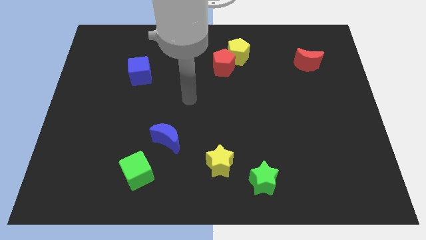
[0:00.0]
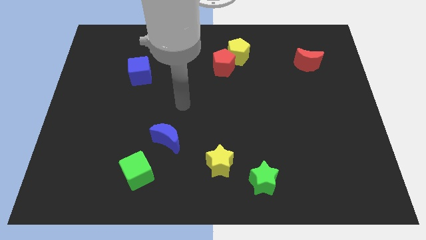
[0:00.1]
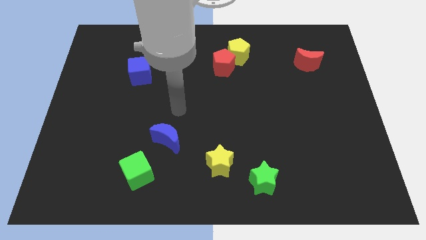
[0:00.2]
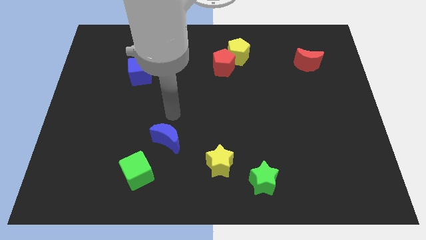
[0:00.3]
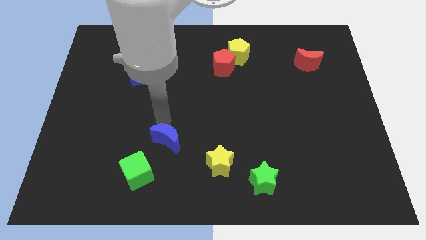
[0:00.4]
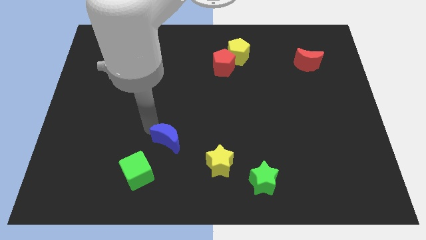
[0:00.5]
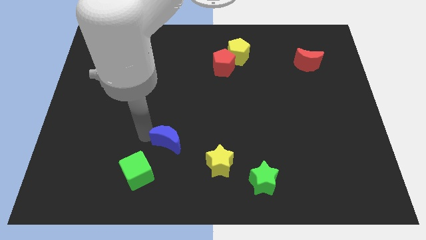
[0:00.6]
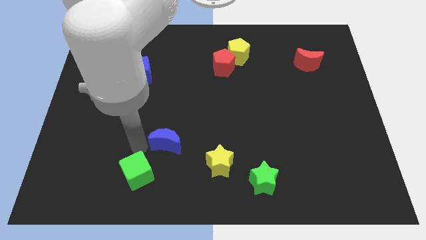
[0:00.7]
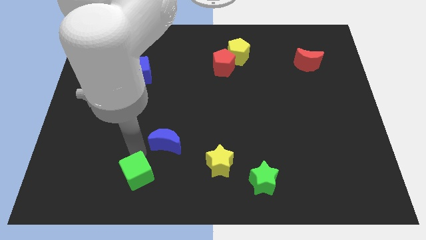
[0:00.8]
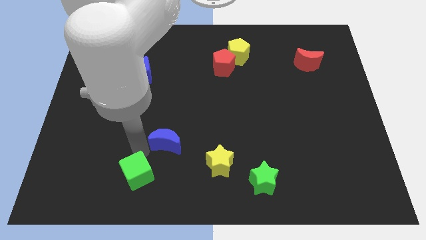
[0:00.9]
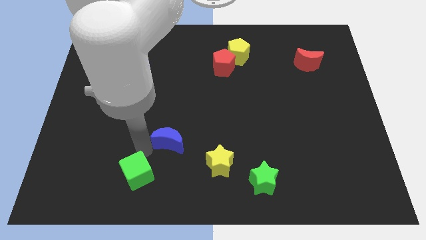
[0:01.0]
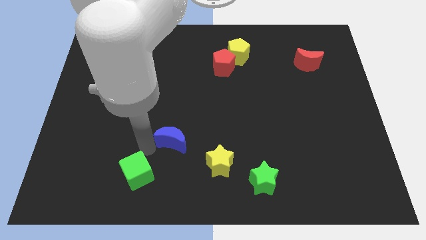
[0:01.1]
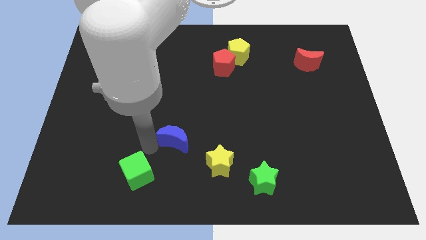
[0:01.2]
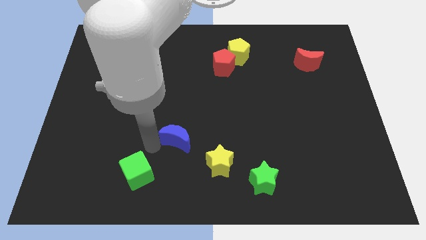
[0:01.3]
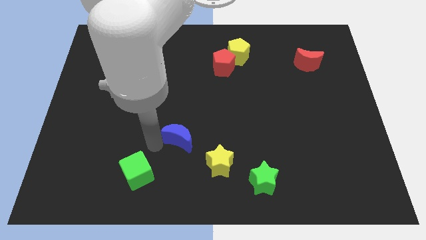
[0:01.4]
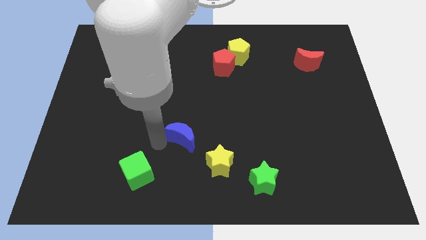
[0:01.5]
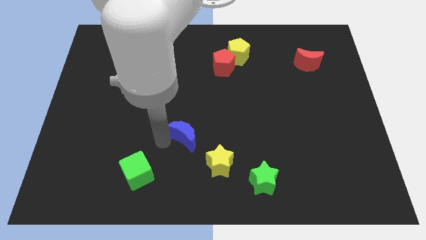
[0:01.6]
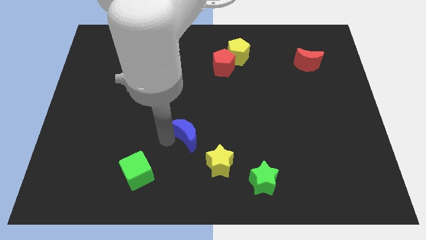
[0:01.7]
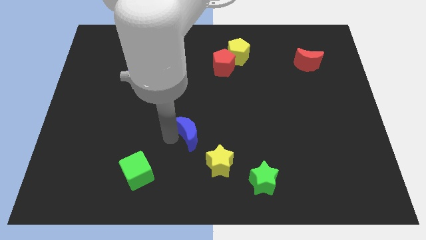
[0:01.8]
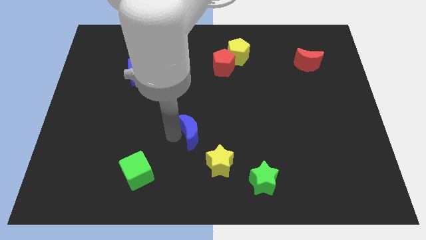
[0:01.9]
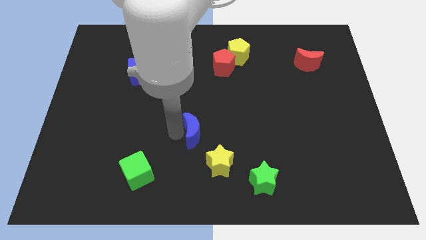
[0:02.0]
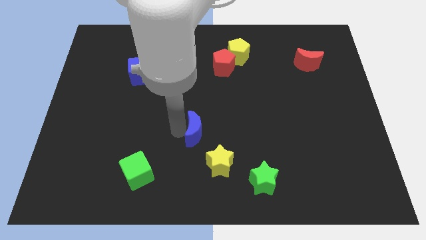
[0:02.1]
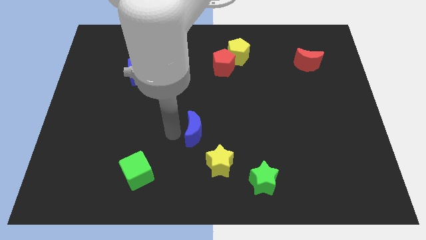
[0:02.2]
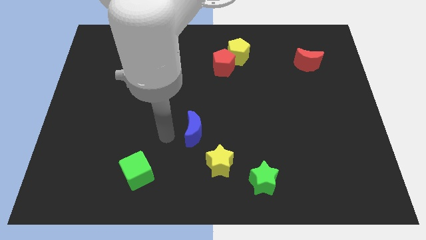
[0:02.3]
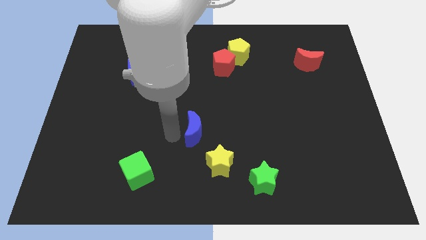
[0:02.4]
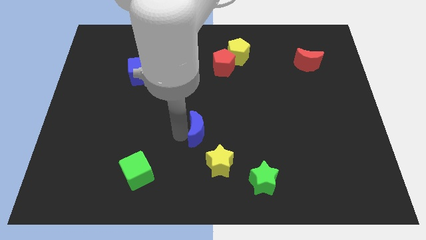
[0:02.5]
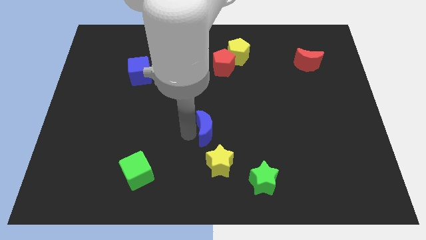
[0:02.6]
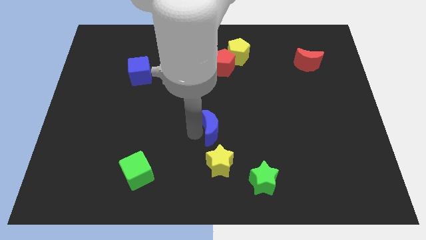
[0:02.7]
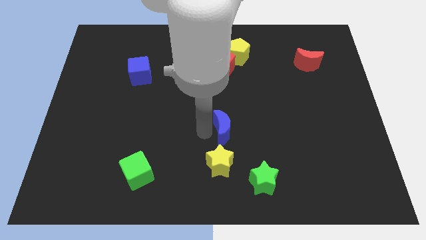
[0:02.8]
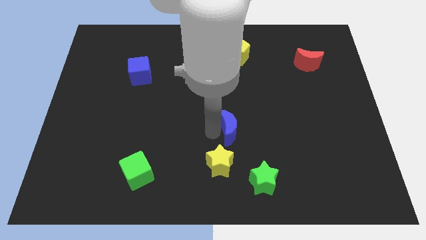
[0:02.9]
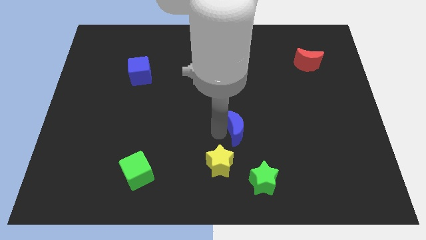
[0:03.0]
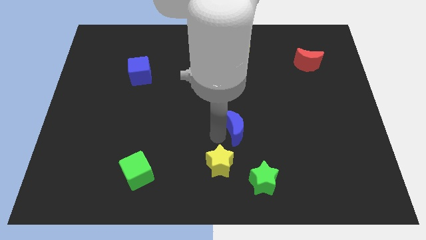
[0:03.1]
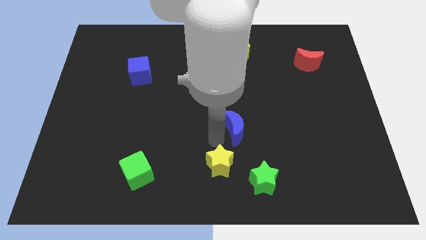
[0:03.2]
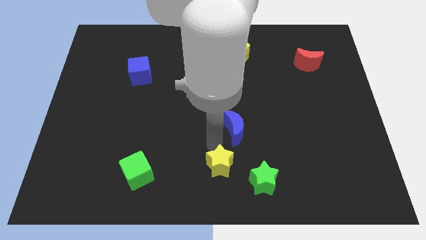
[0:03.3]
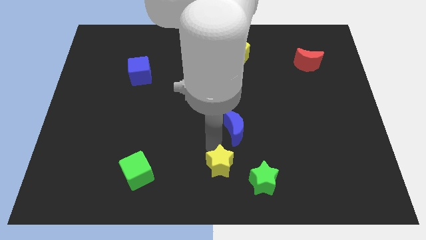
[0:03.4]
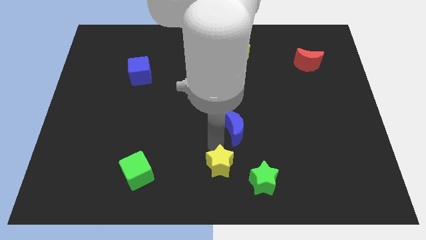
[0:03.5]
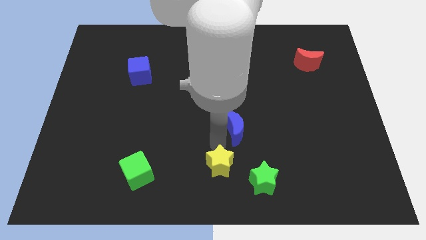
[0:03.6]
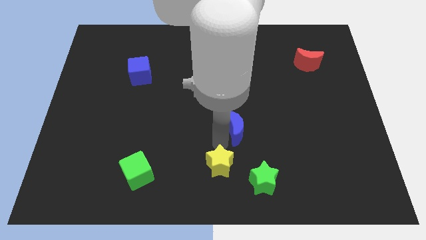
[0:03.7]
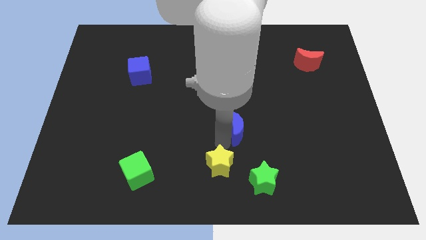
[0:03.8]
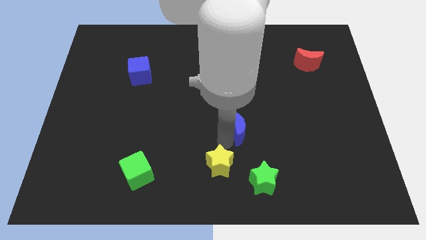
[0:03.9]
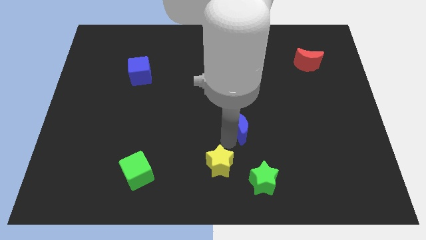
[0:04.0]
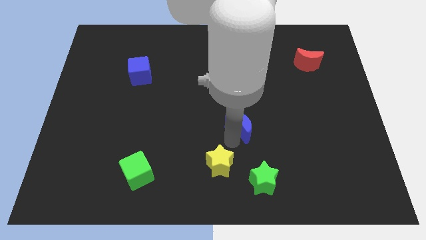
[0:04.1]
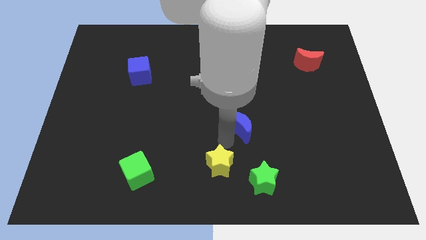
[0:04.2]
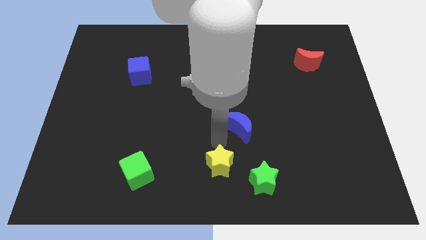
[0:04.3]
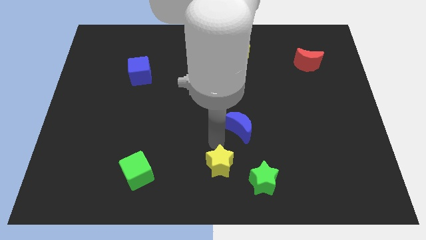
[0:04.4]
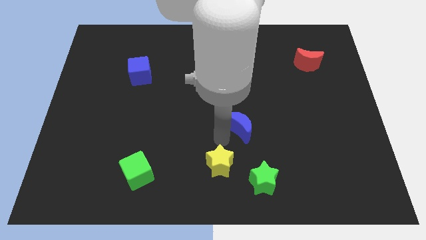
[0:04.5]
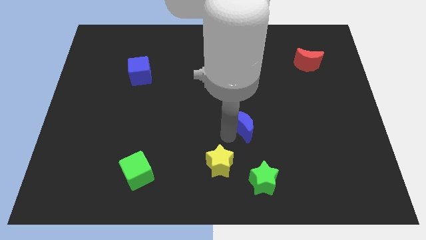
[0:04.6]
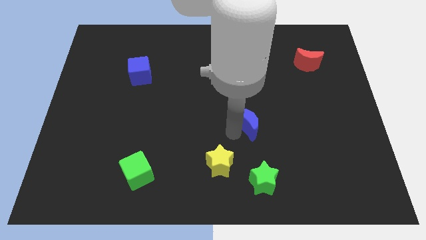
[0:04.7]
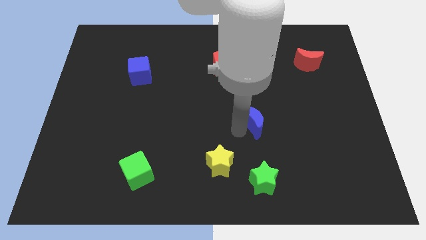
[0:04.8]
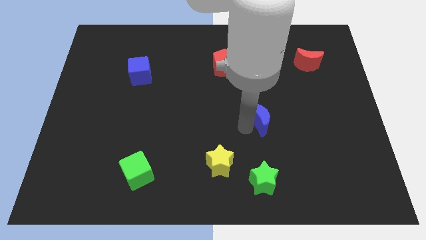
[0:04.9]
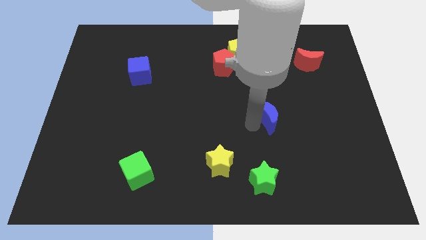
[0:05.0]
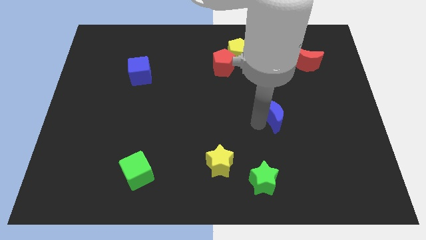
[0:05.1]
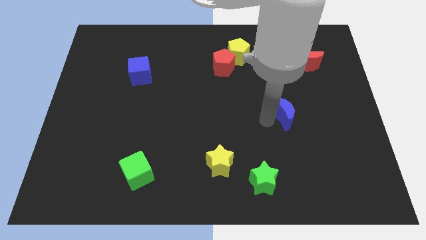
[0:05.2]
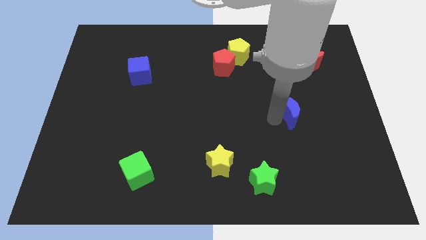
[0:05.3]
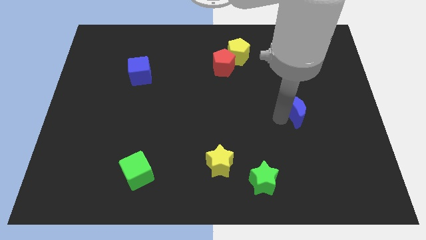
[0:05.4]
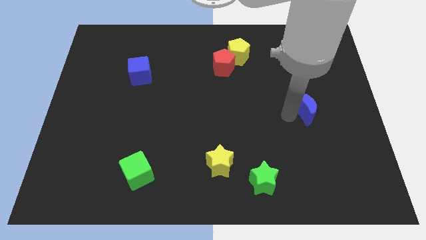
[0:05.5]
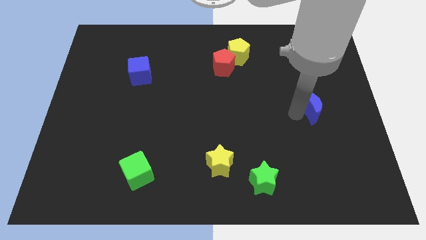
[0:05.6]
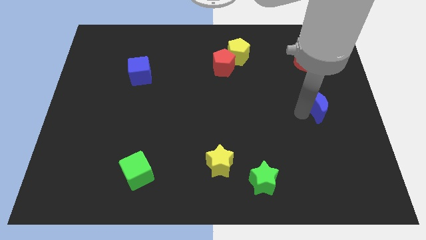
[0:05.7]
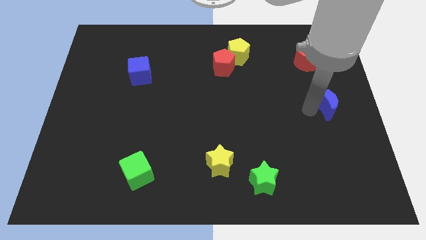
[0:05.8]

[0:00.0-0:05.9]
move the blue moon to the right side of the board
